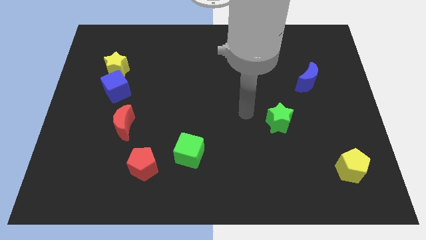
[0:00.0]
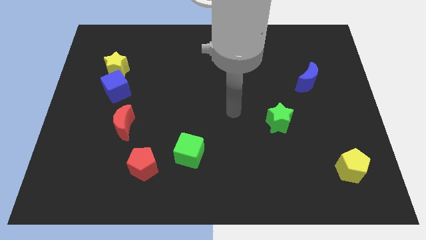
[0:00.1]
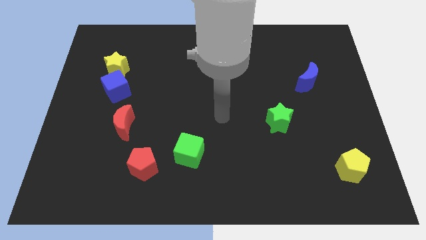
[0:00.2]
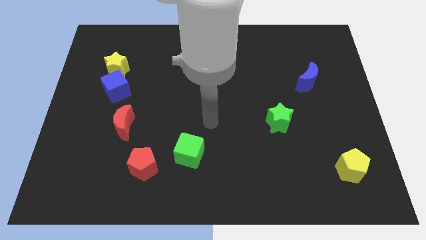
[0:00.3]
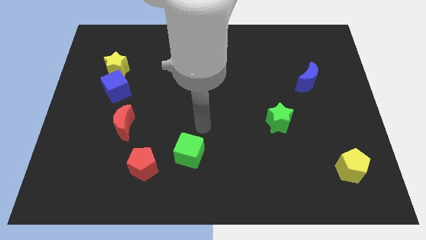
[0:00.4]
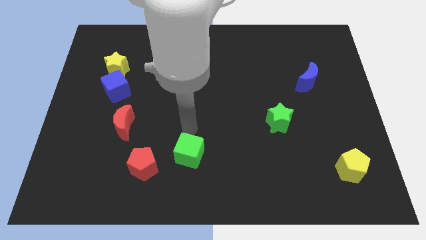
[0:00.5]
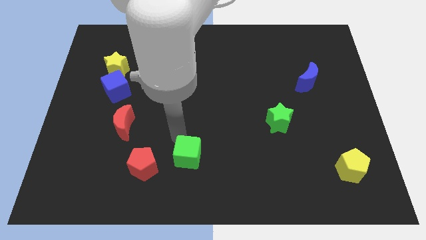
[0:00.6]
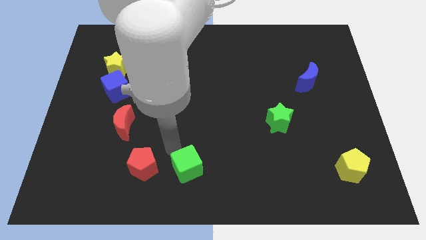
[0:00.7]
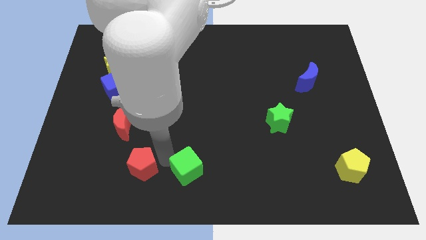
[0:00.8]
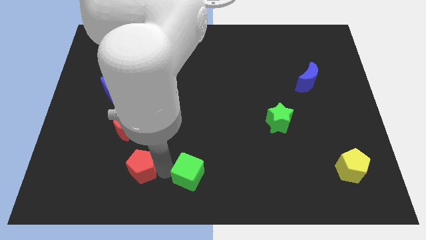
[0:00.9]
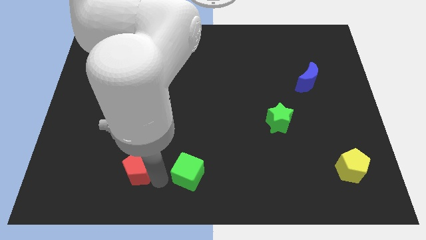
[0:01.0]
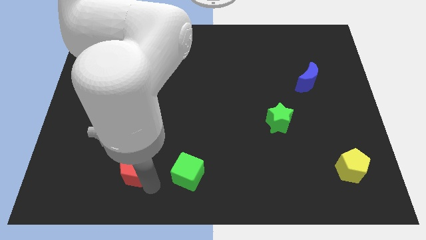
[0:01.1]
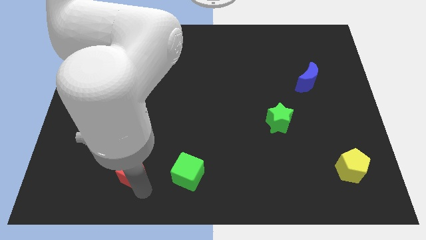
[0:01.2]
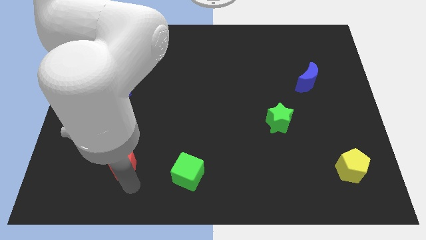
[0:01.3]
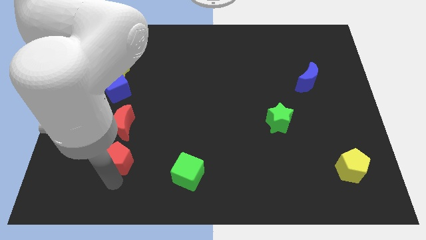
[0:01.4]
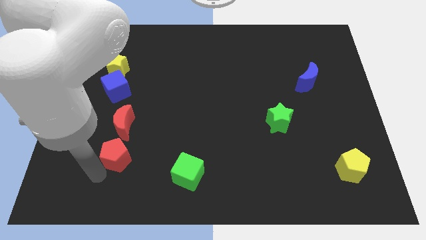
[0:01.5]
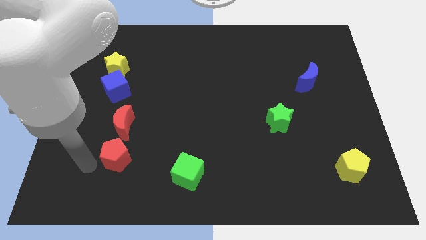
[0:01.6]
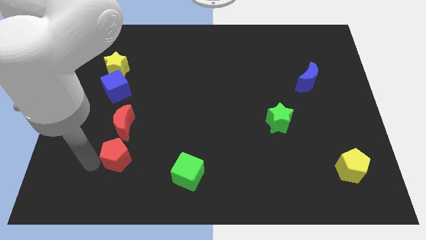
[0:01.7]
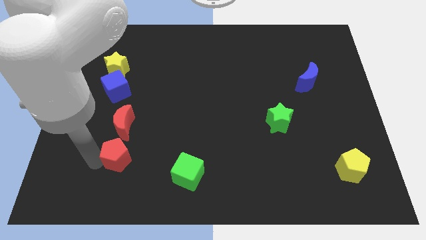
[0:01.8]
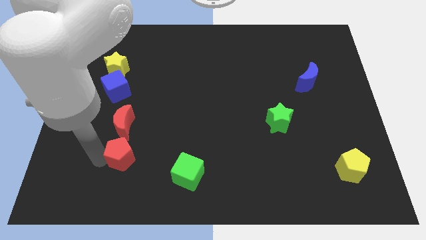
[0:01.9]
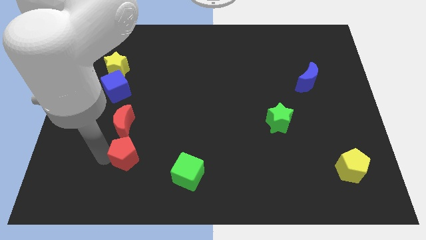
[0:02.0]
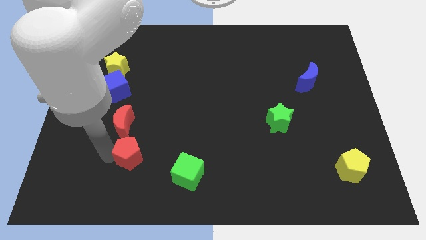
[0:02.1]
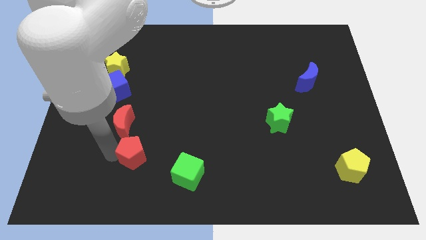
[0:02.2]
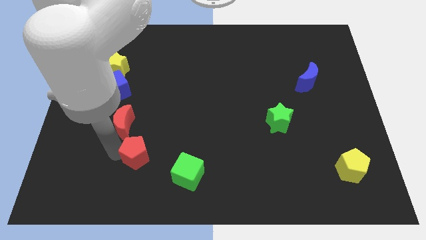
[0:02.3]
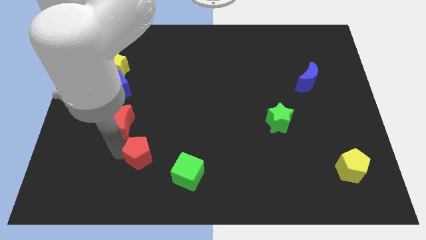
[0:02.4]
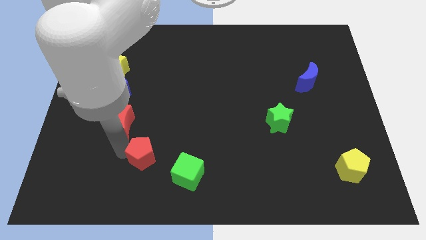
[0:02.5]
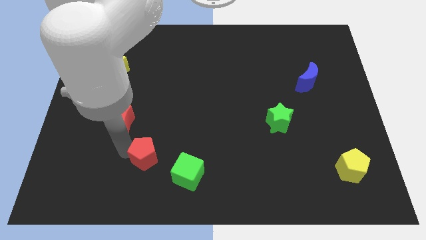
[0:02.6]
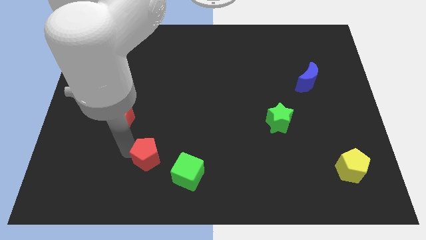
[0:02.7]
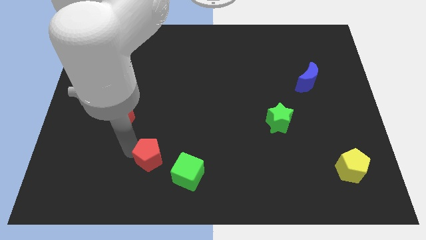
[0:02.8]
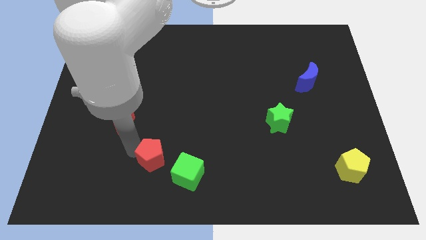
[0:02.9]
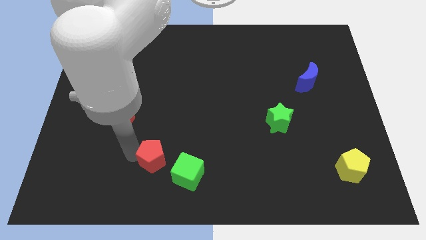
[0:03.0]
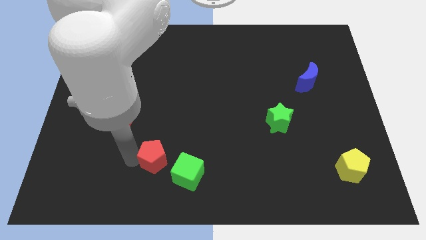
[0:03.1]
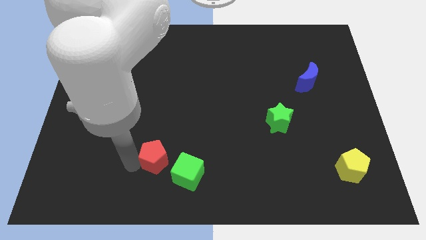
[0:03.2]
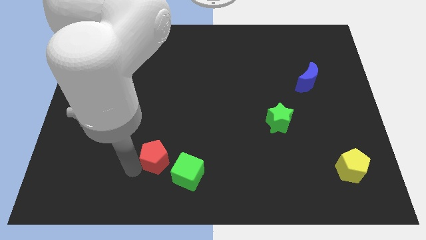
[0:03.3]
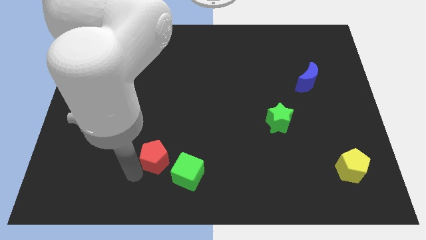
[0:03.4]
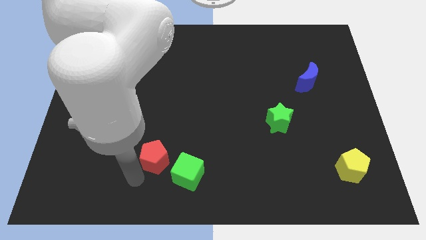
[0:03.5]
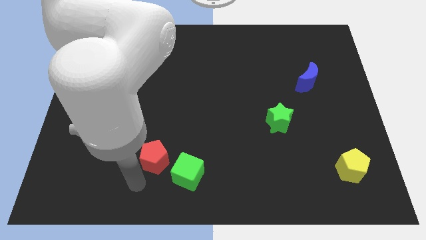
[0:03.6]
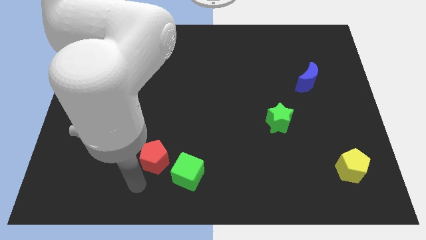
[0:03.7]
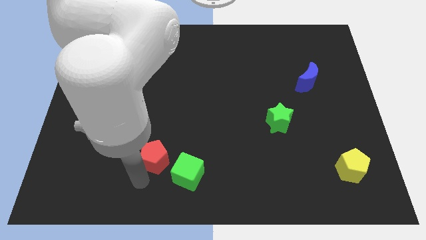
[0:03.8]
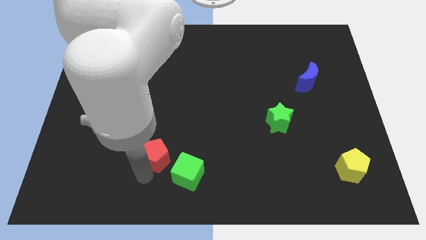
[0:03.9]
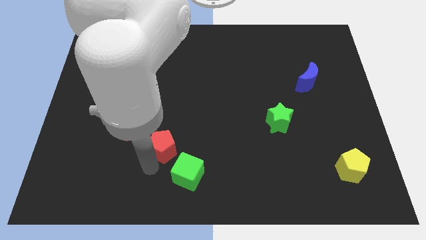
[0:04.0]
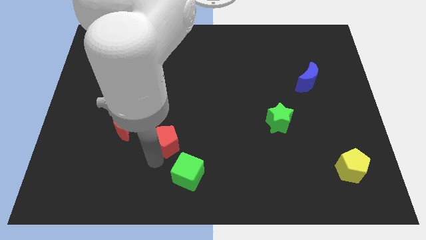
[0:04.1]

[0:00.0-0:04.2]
slightly push the red pentagon diagonally up and to the right

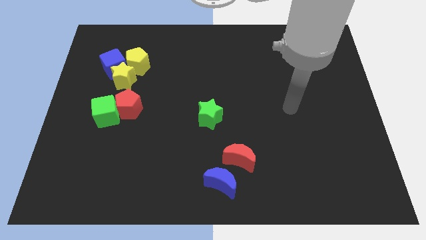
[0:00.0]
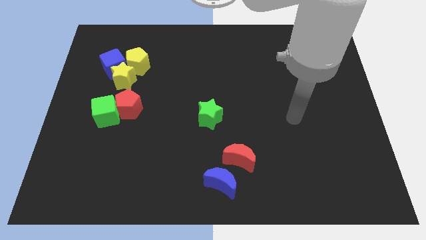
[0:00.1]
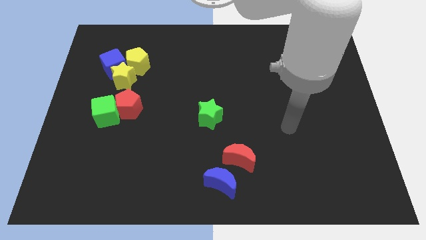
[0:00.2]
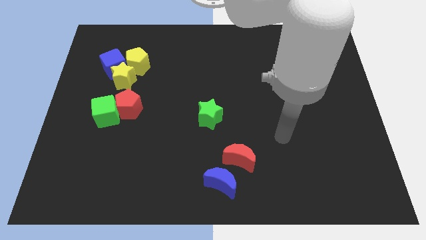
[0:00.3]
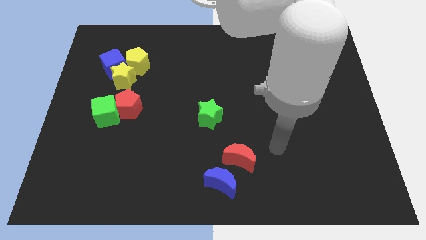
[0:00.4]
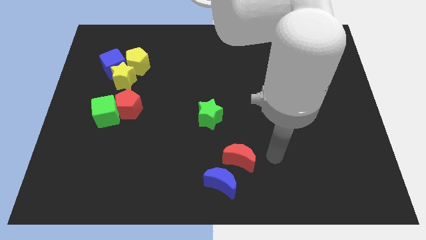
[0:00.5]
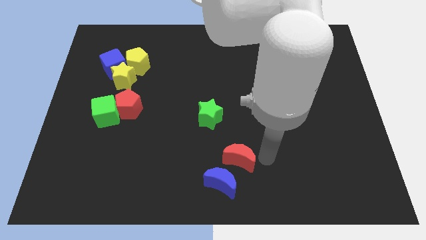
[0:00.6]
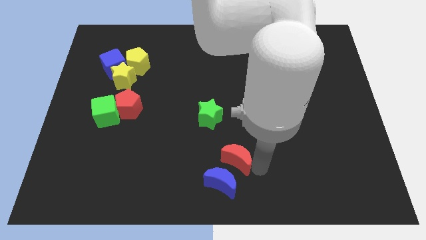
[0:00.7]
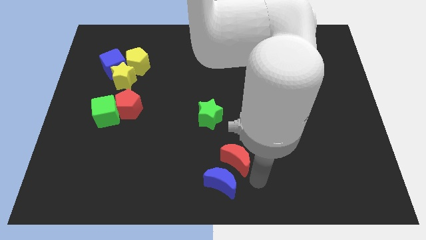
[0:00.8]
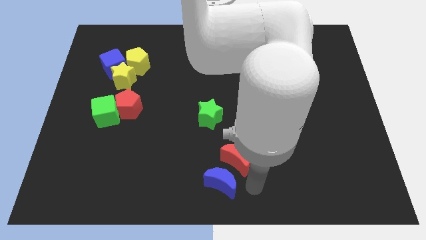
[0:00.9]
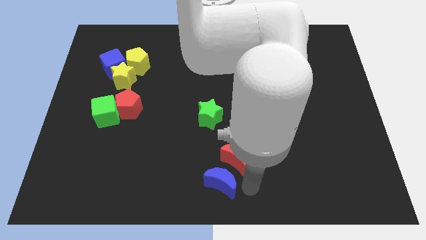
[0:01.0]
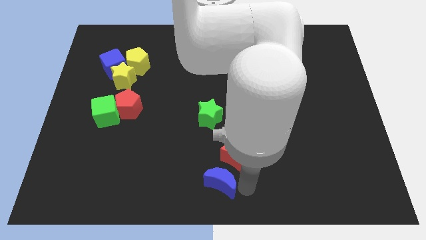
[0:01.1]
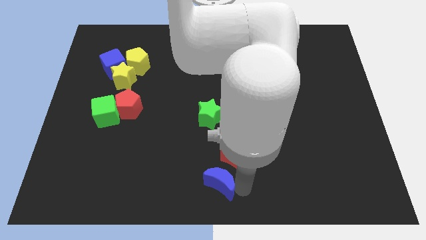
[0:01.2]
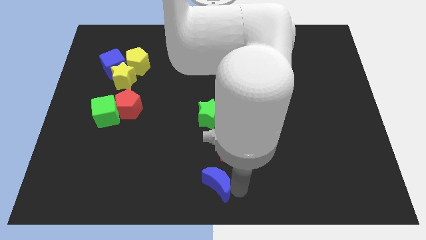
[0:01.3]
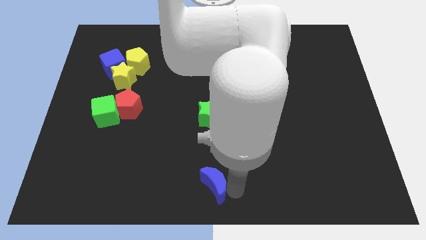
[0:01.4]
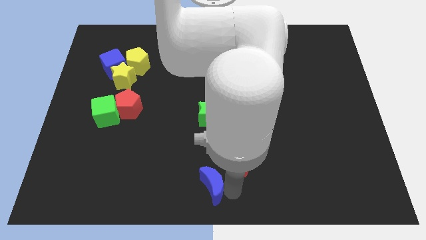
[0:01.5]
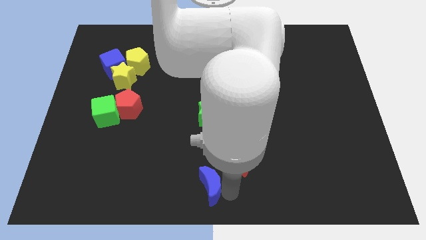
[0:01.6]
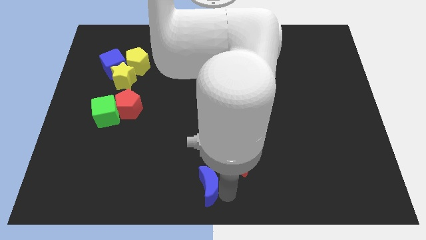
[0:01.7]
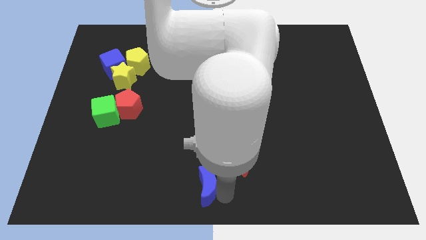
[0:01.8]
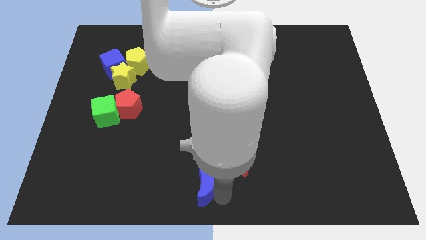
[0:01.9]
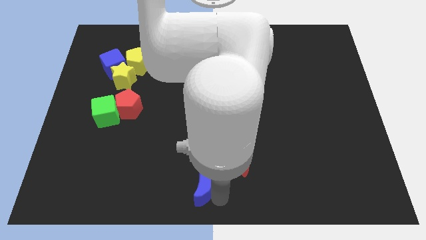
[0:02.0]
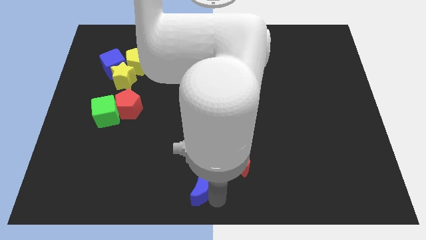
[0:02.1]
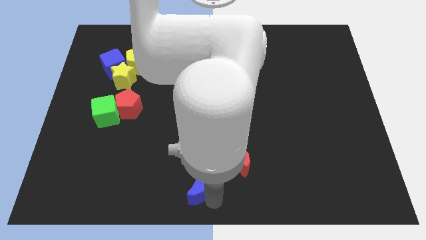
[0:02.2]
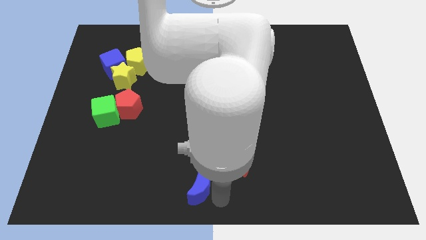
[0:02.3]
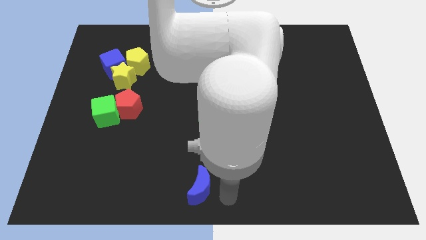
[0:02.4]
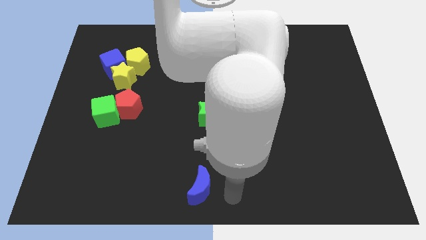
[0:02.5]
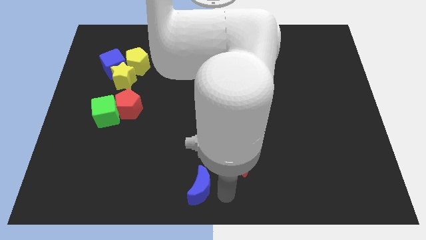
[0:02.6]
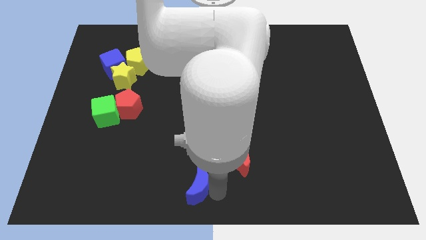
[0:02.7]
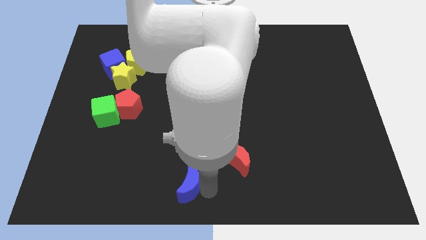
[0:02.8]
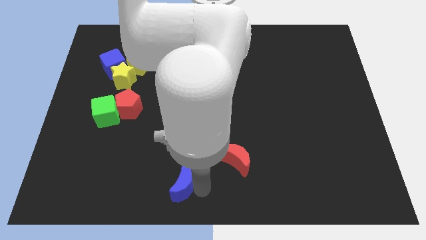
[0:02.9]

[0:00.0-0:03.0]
push the blue moon to the left slightly

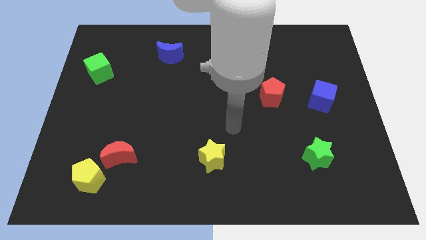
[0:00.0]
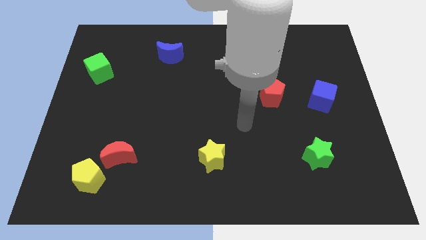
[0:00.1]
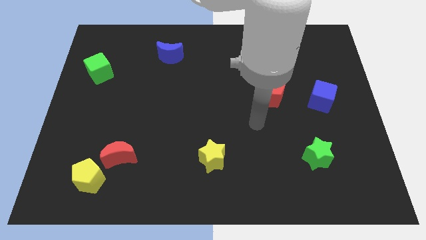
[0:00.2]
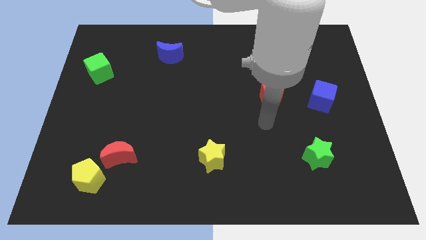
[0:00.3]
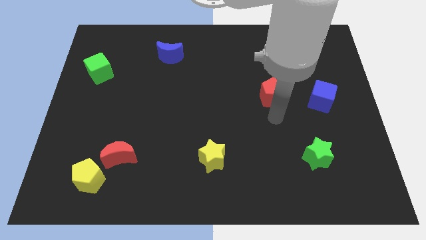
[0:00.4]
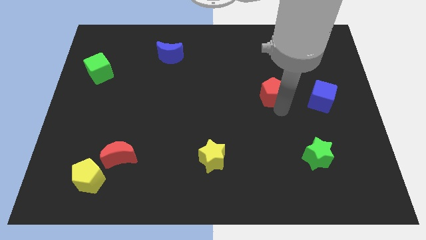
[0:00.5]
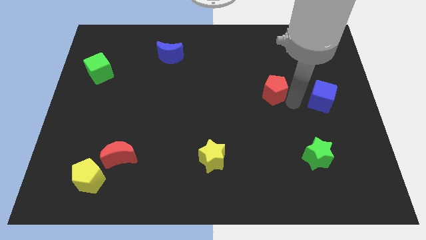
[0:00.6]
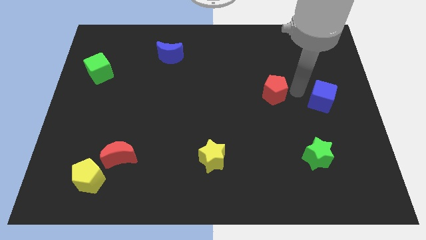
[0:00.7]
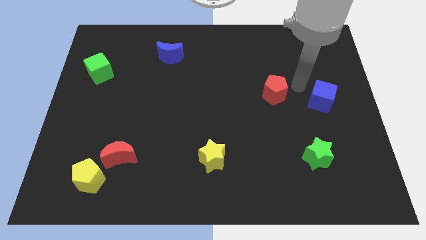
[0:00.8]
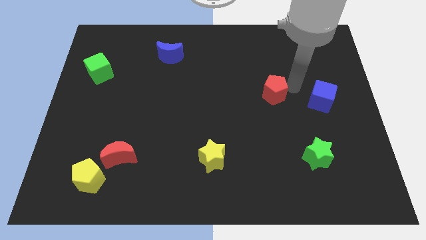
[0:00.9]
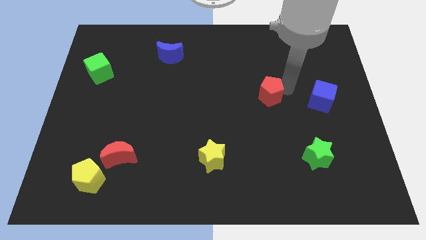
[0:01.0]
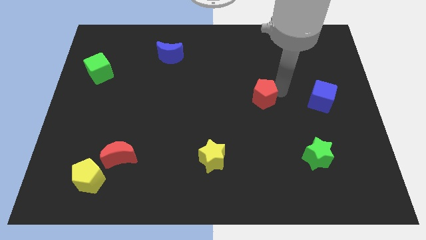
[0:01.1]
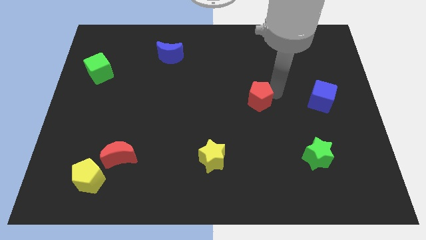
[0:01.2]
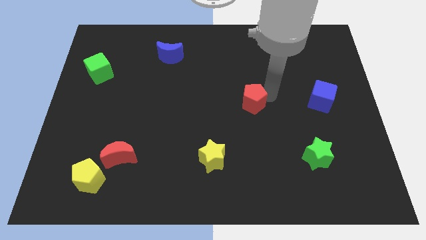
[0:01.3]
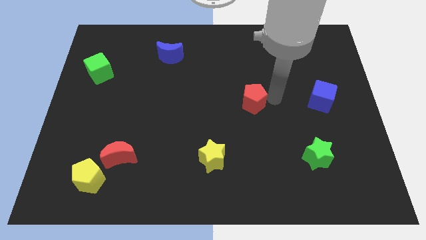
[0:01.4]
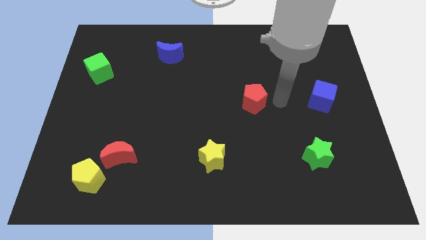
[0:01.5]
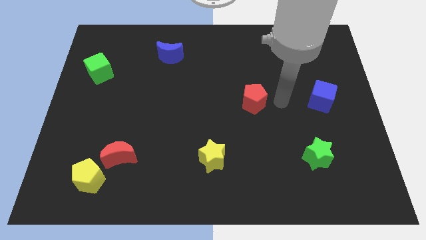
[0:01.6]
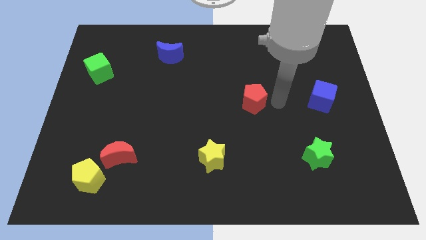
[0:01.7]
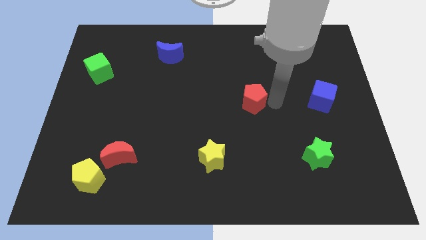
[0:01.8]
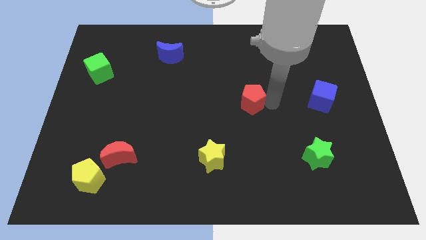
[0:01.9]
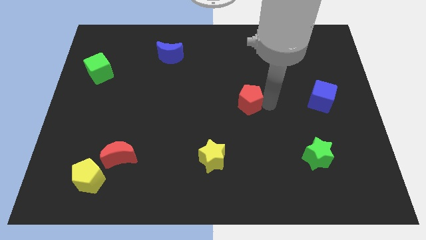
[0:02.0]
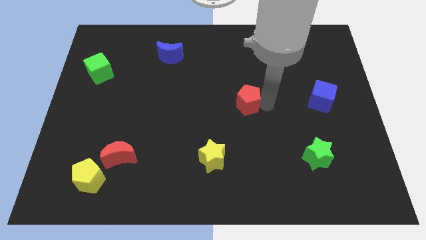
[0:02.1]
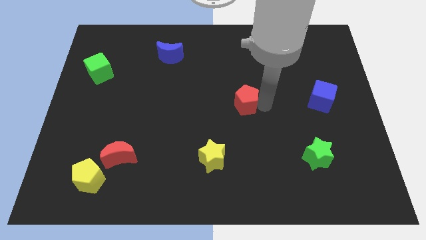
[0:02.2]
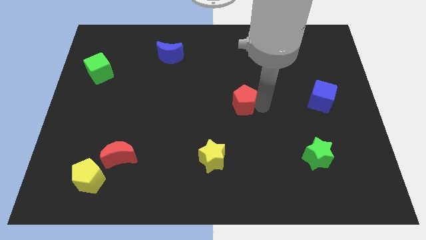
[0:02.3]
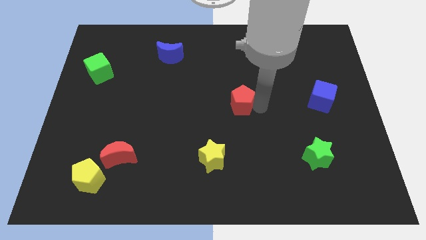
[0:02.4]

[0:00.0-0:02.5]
push the red pentagon a bit left
